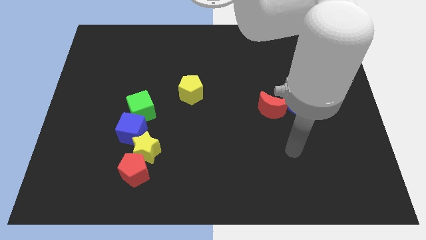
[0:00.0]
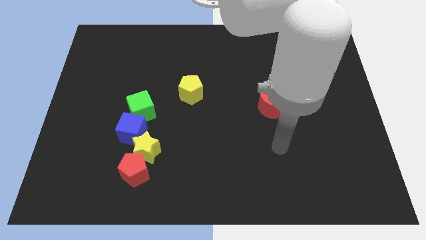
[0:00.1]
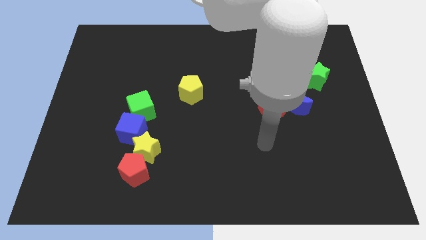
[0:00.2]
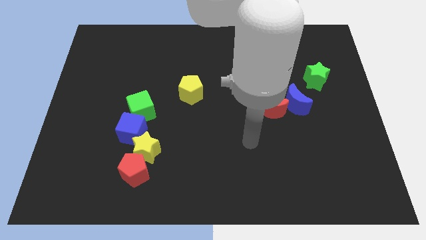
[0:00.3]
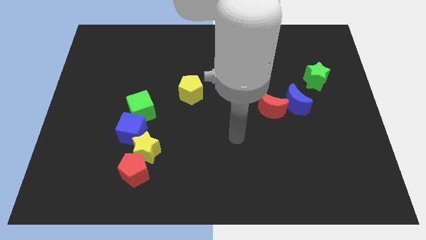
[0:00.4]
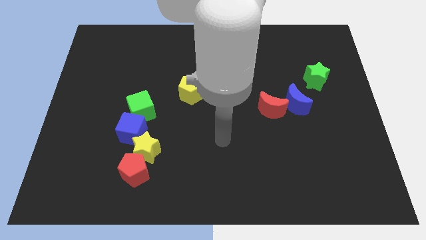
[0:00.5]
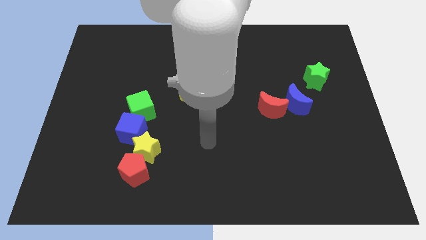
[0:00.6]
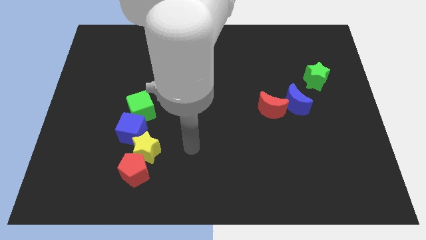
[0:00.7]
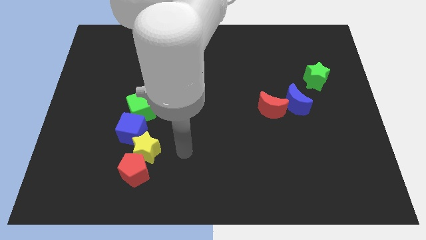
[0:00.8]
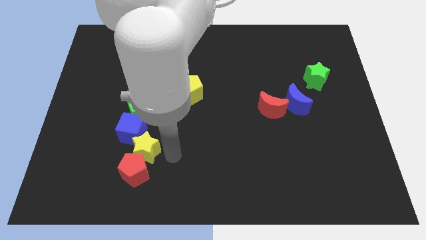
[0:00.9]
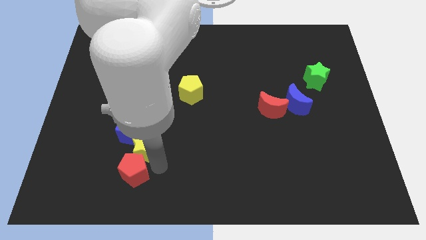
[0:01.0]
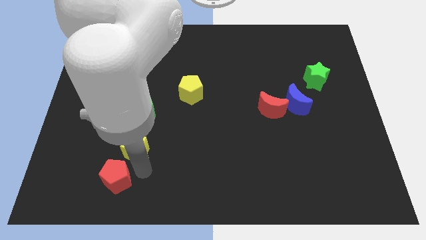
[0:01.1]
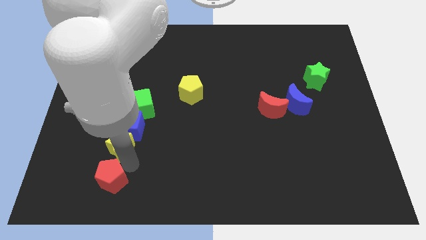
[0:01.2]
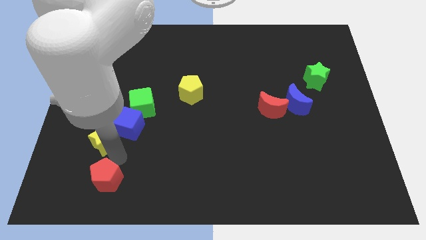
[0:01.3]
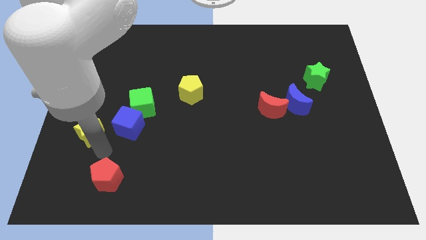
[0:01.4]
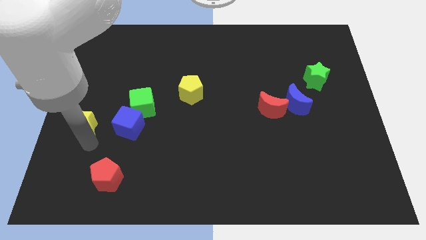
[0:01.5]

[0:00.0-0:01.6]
separate the yellow star from the red pentagon and blue cube

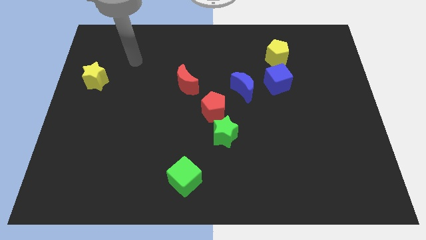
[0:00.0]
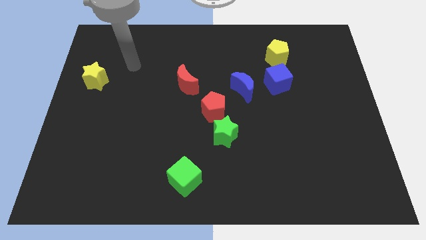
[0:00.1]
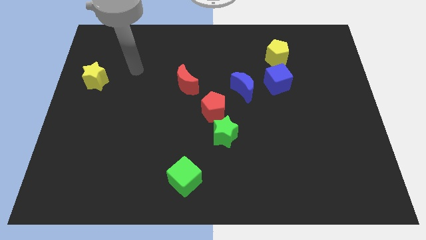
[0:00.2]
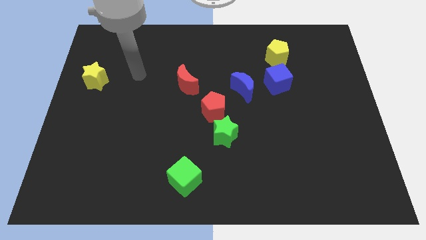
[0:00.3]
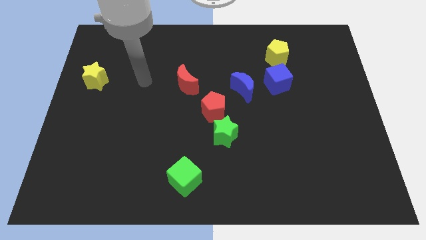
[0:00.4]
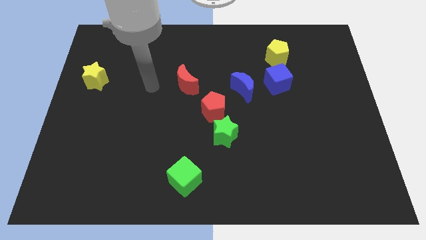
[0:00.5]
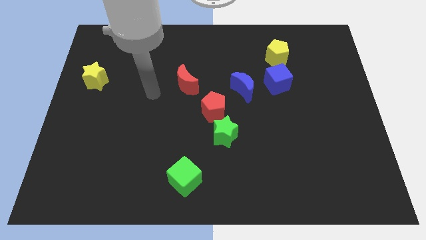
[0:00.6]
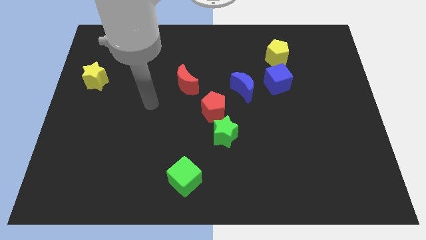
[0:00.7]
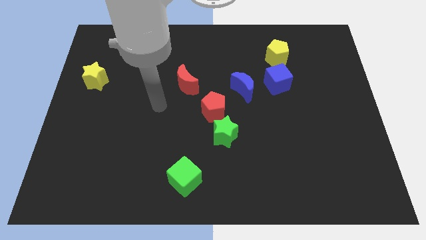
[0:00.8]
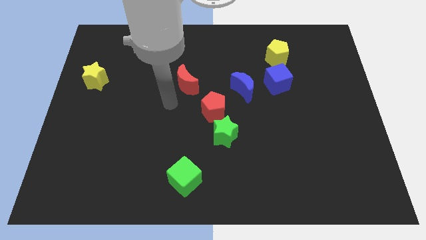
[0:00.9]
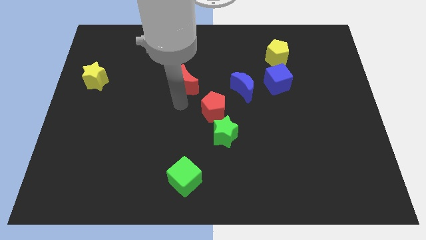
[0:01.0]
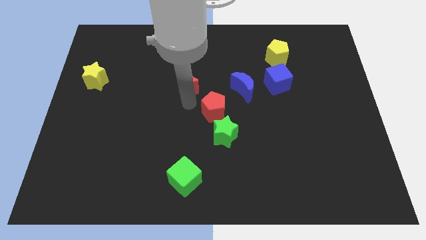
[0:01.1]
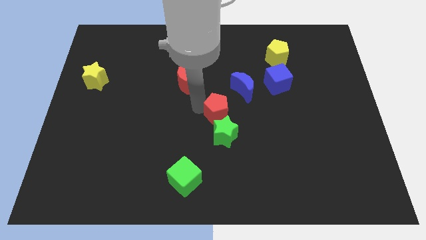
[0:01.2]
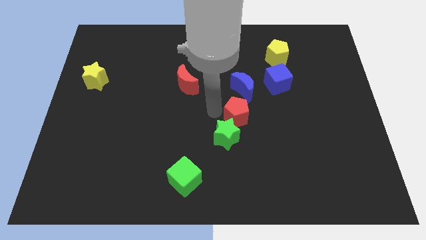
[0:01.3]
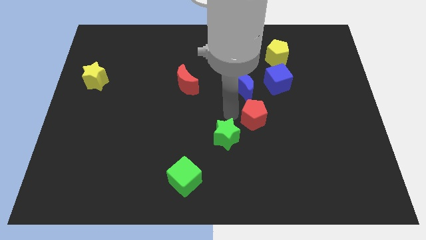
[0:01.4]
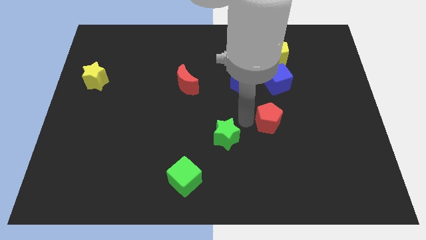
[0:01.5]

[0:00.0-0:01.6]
move the green star away from the red pentagon

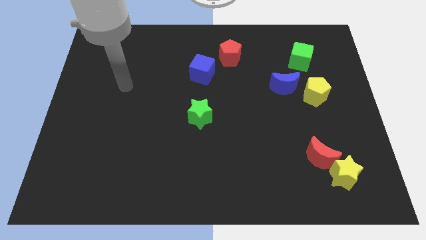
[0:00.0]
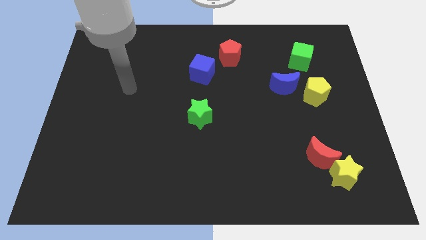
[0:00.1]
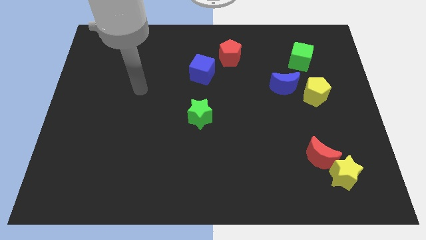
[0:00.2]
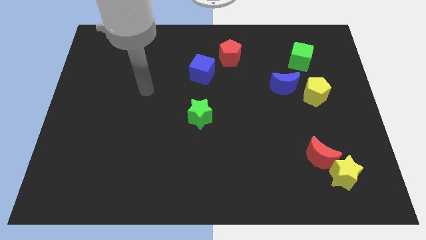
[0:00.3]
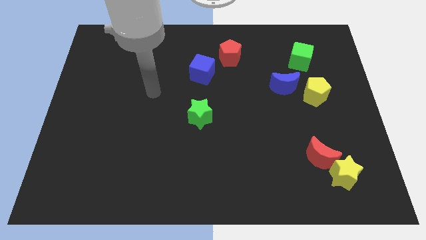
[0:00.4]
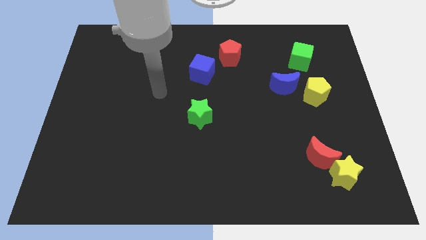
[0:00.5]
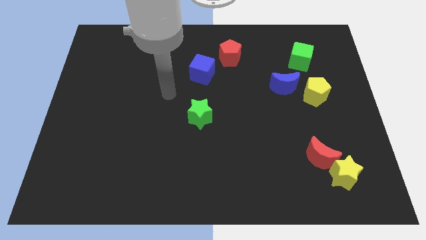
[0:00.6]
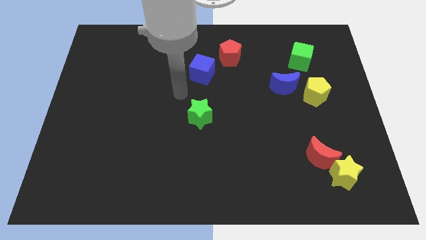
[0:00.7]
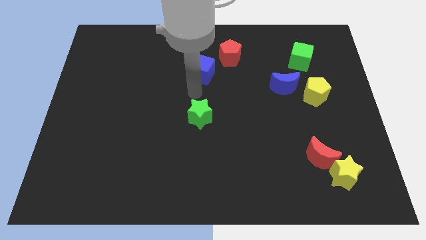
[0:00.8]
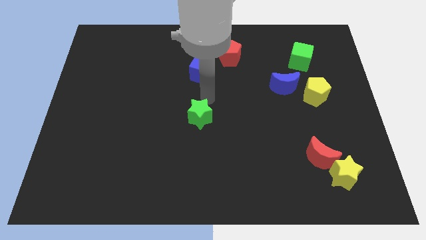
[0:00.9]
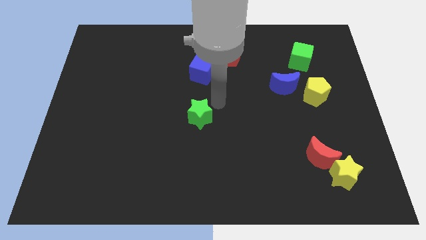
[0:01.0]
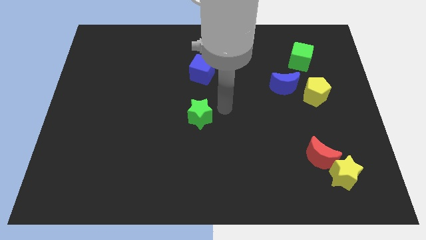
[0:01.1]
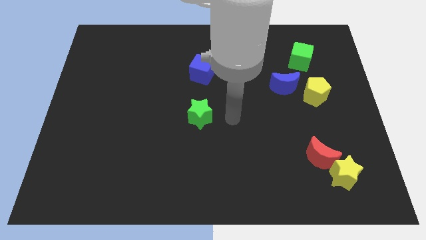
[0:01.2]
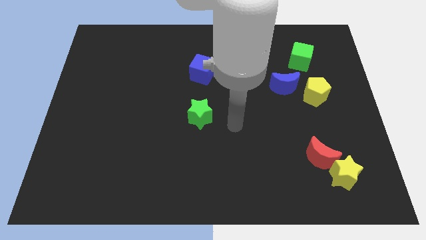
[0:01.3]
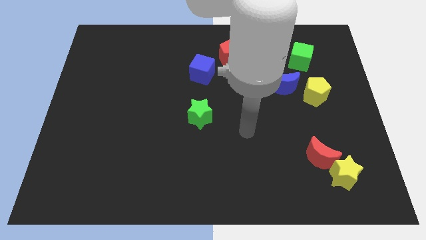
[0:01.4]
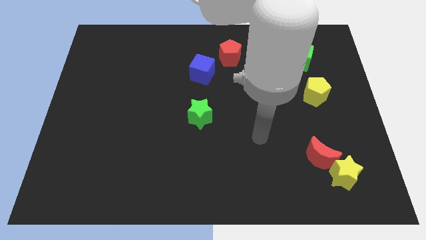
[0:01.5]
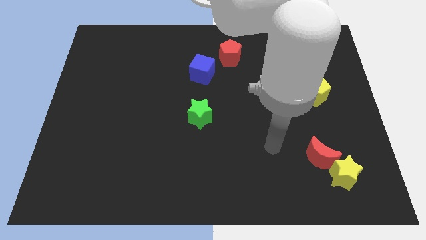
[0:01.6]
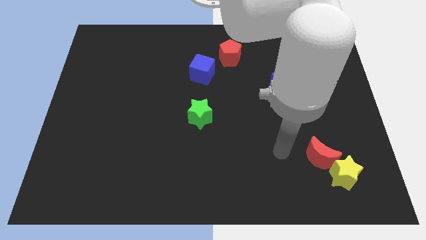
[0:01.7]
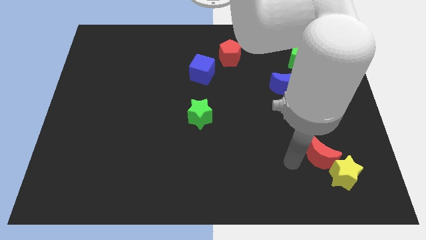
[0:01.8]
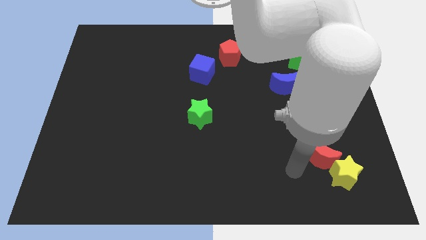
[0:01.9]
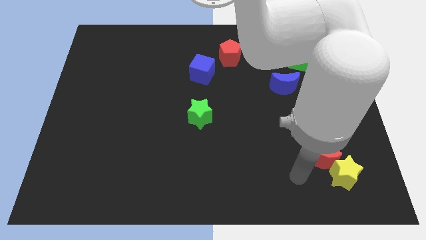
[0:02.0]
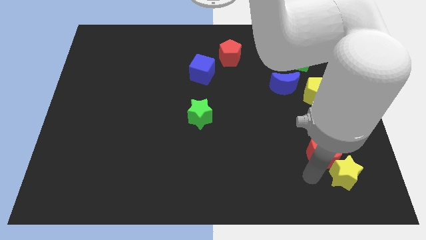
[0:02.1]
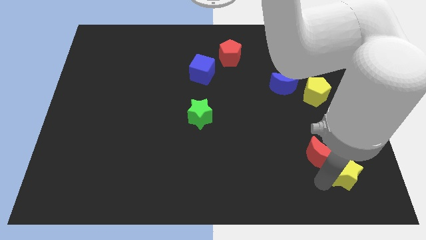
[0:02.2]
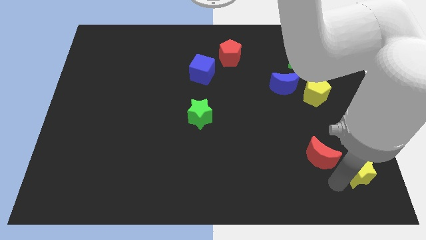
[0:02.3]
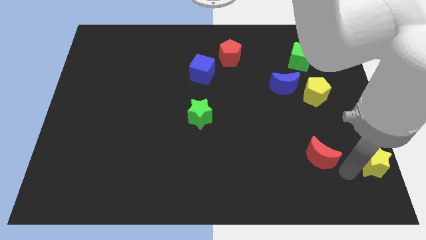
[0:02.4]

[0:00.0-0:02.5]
separate the red moon from the yellow star

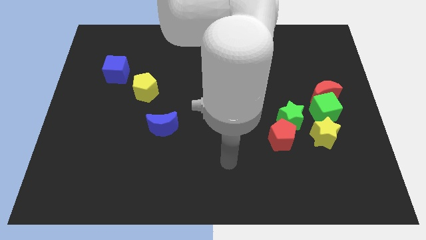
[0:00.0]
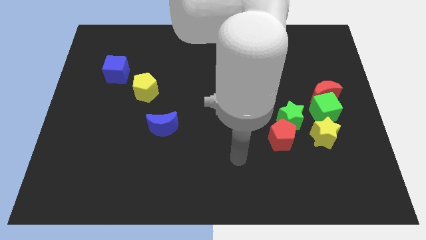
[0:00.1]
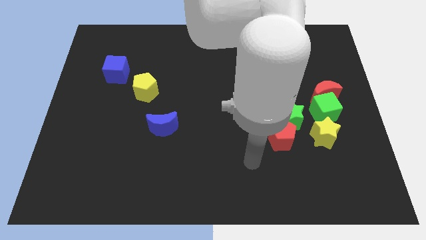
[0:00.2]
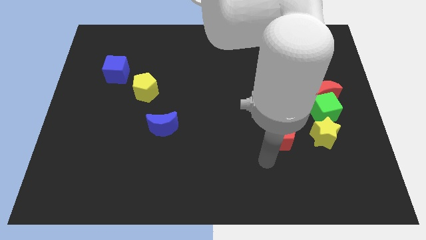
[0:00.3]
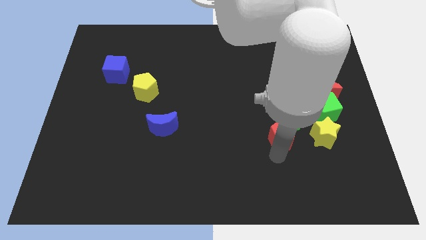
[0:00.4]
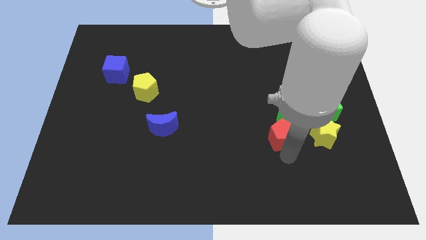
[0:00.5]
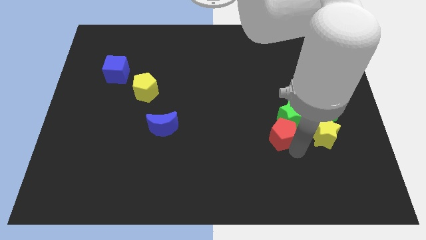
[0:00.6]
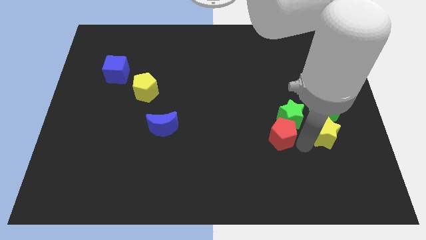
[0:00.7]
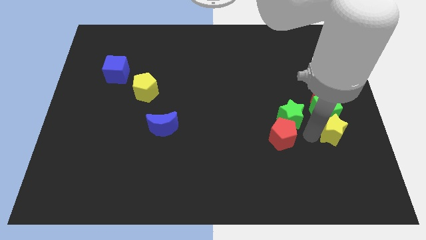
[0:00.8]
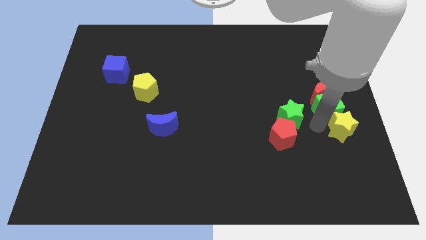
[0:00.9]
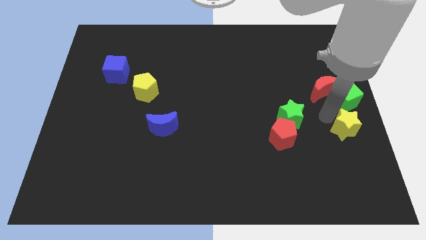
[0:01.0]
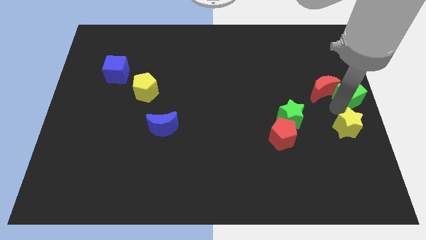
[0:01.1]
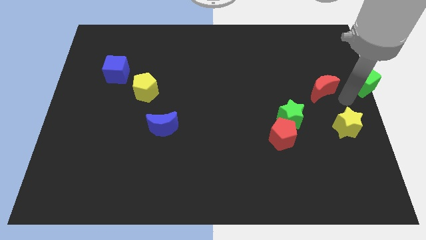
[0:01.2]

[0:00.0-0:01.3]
separate the red moon from the green cube

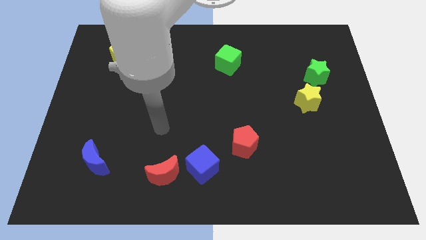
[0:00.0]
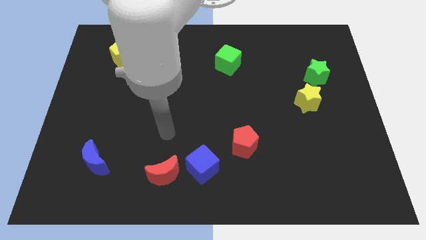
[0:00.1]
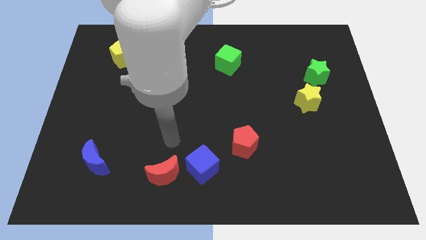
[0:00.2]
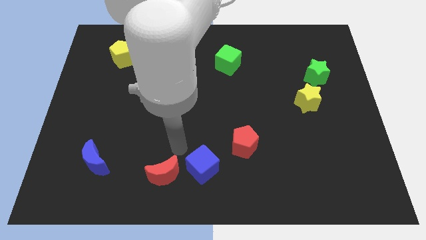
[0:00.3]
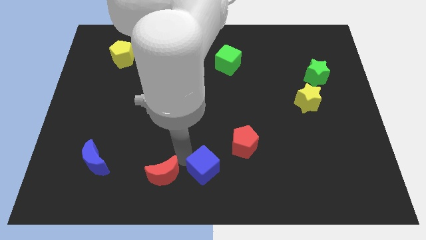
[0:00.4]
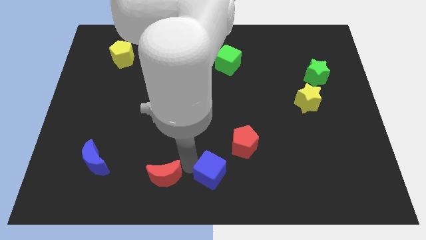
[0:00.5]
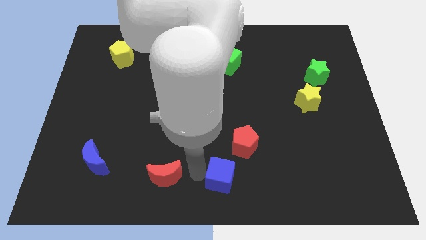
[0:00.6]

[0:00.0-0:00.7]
pull the red moon apart from the blue cube

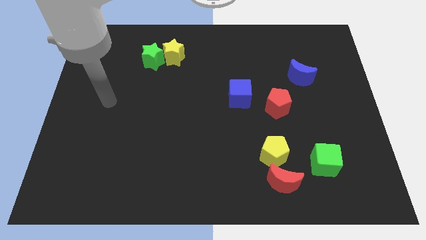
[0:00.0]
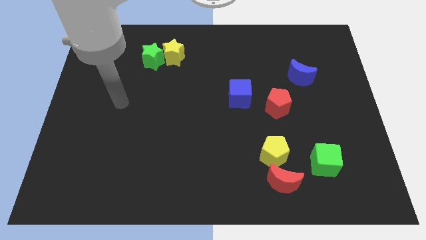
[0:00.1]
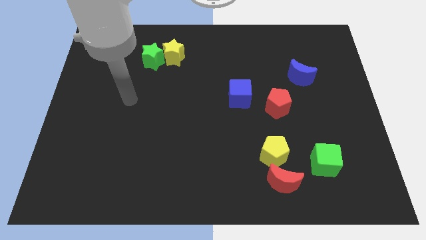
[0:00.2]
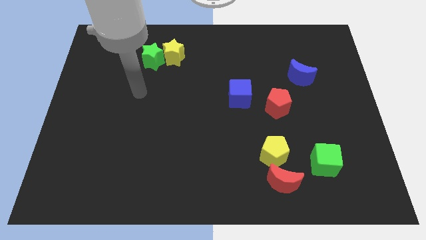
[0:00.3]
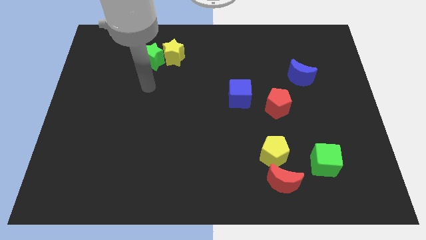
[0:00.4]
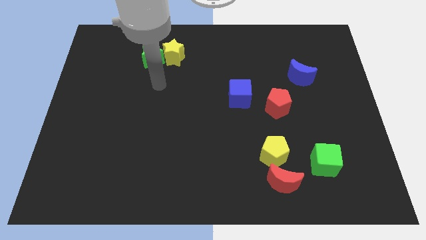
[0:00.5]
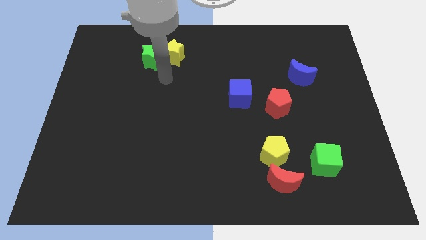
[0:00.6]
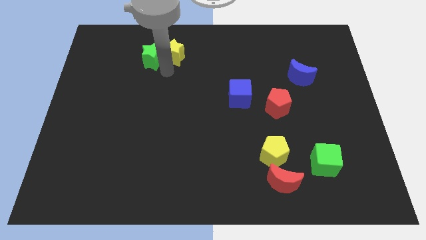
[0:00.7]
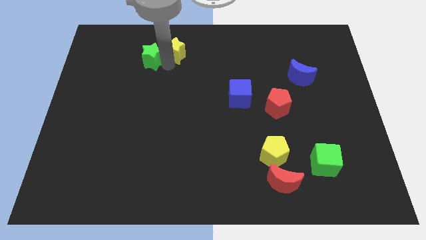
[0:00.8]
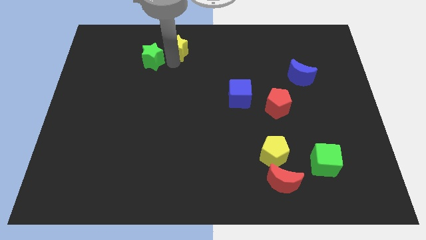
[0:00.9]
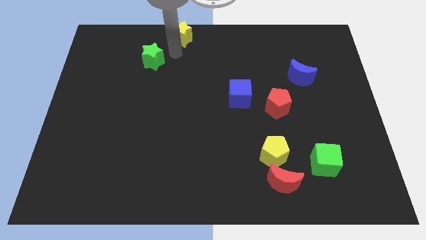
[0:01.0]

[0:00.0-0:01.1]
separate the green star from the yellow star

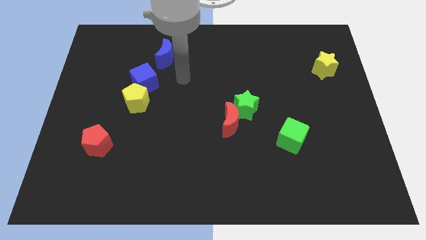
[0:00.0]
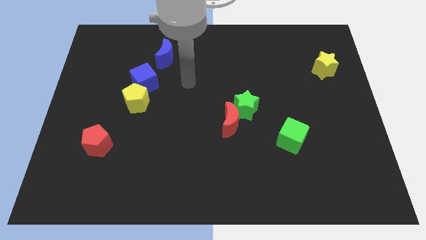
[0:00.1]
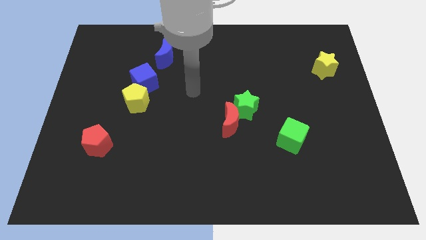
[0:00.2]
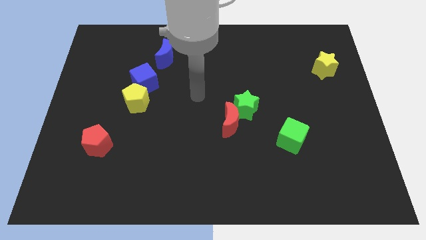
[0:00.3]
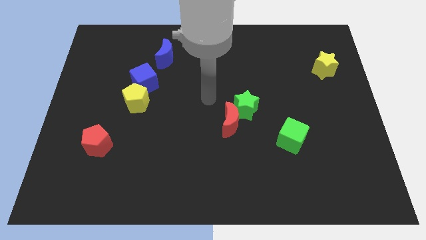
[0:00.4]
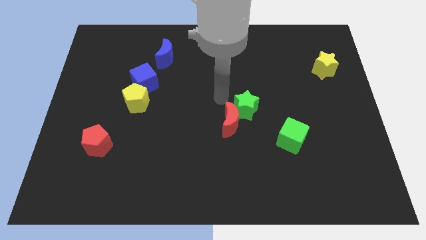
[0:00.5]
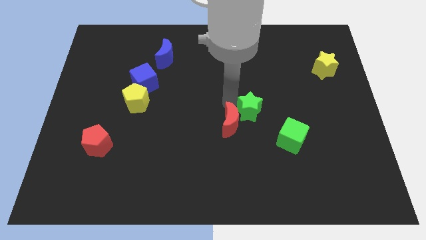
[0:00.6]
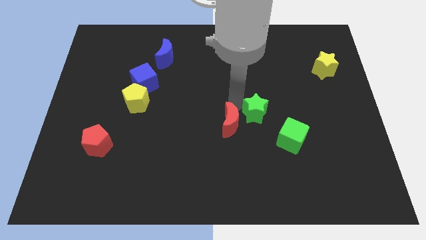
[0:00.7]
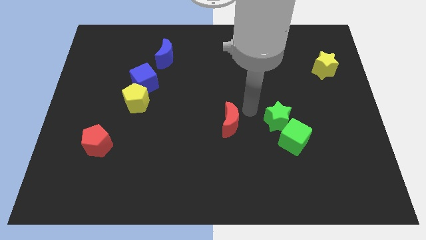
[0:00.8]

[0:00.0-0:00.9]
separate the red moon from the green star
